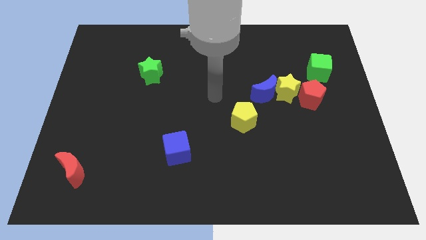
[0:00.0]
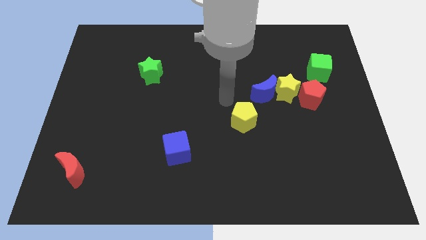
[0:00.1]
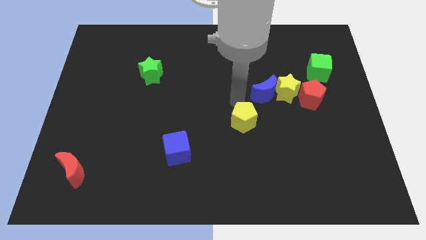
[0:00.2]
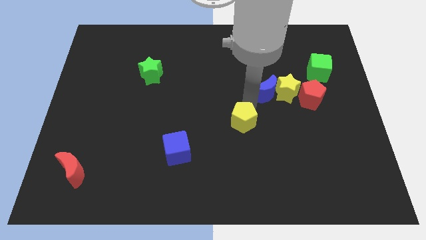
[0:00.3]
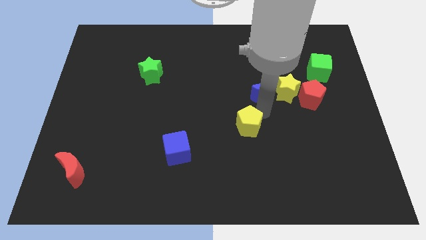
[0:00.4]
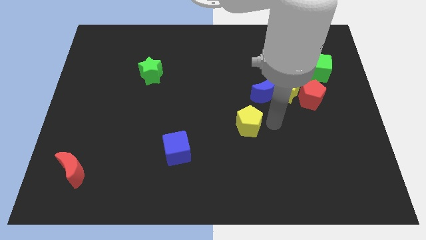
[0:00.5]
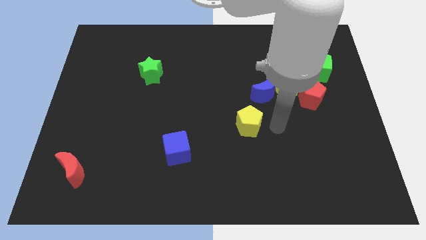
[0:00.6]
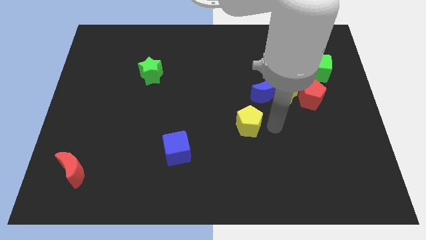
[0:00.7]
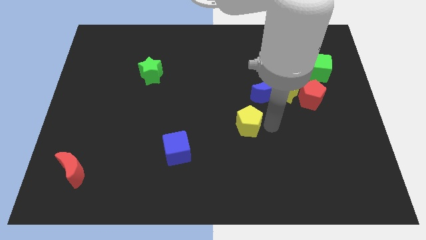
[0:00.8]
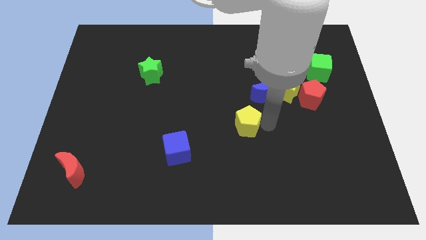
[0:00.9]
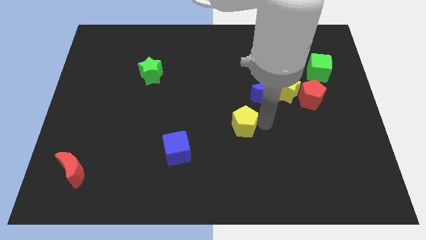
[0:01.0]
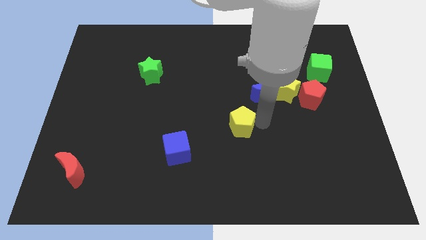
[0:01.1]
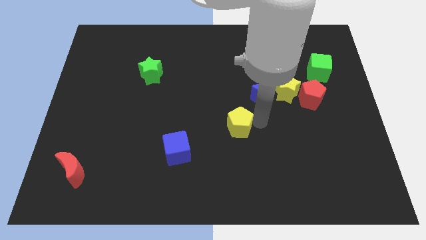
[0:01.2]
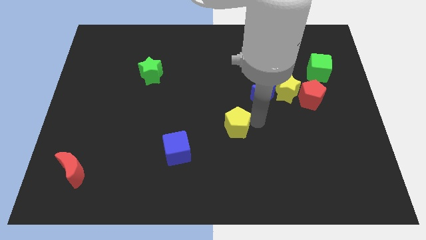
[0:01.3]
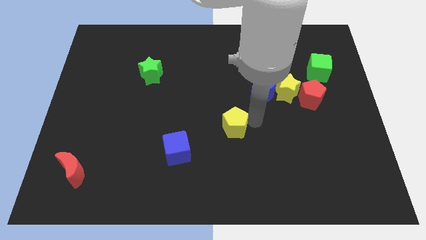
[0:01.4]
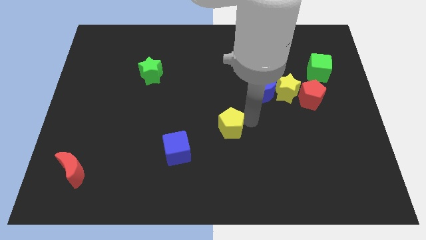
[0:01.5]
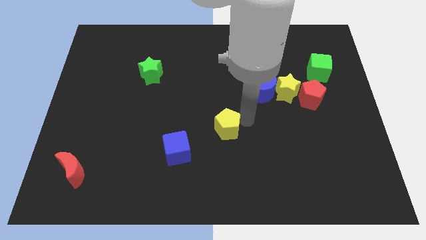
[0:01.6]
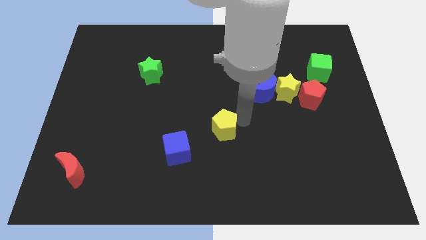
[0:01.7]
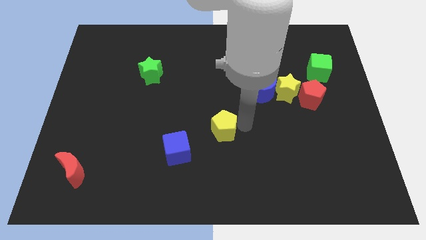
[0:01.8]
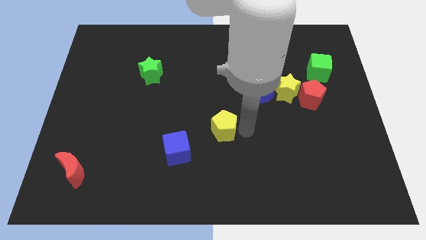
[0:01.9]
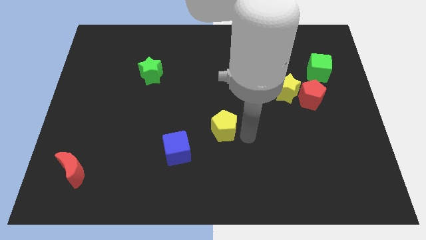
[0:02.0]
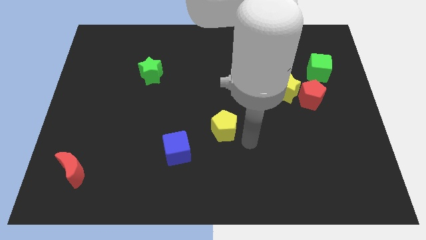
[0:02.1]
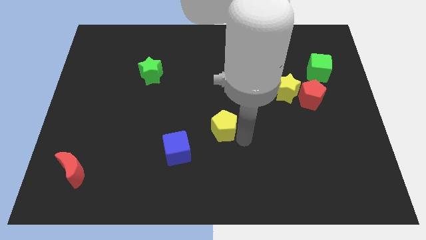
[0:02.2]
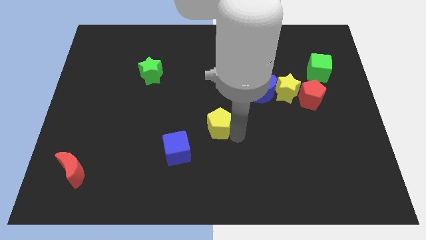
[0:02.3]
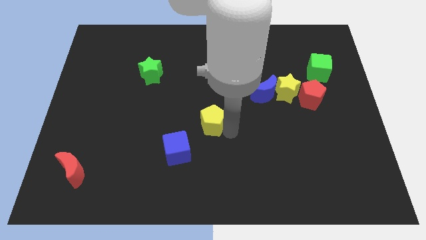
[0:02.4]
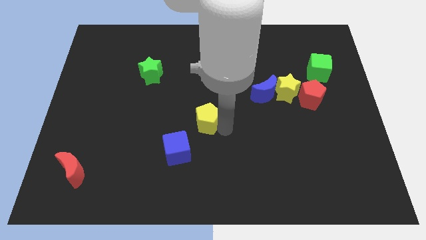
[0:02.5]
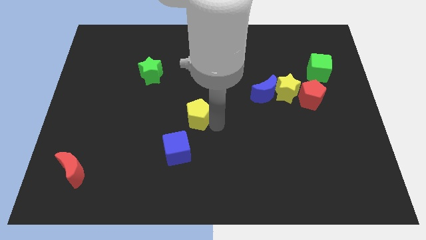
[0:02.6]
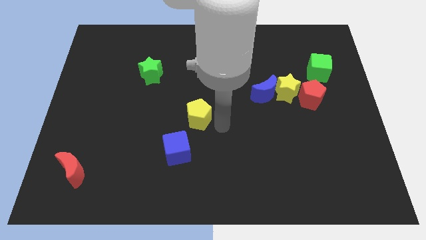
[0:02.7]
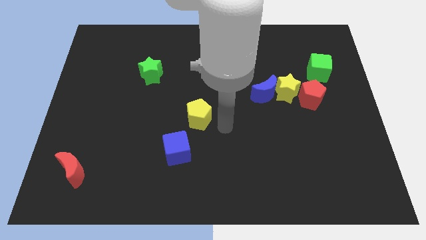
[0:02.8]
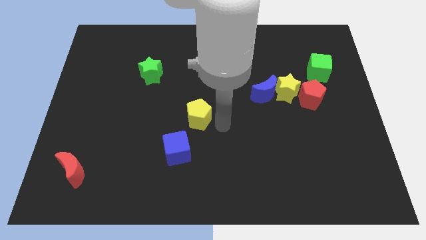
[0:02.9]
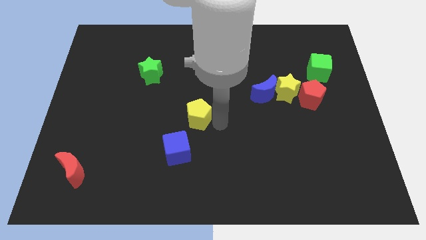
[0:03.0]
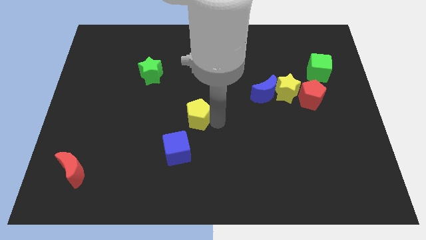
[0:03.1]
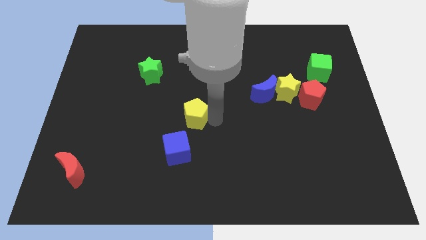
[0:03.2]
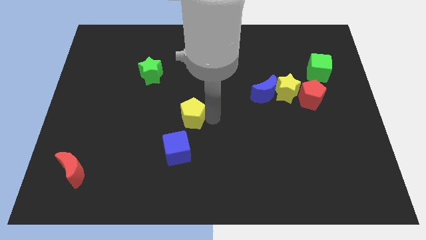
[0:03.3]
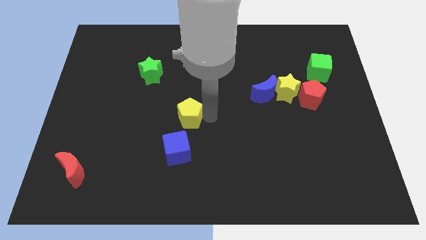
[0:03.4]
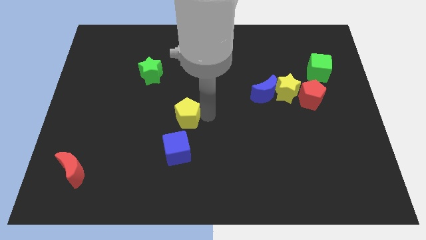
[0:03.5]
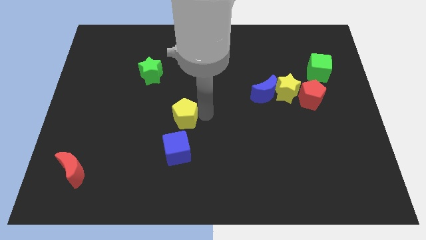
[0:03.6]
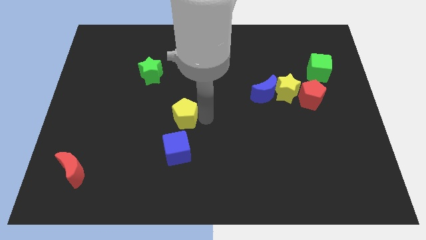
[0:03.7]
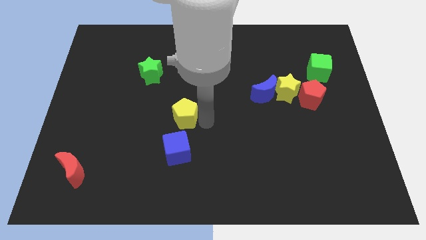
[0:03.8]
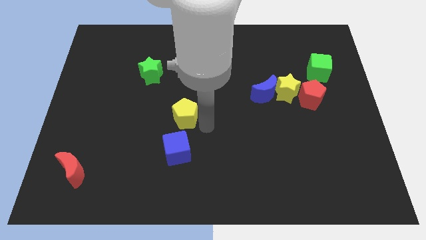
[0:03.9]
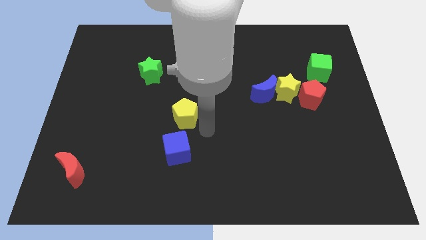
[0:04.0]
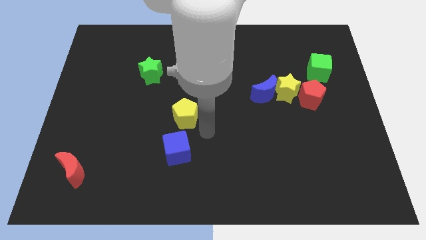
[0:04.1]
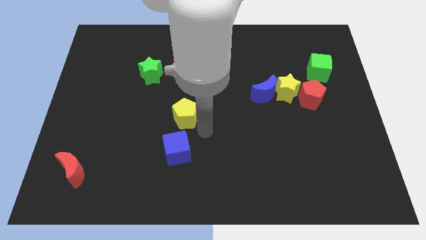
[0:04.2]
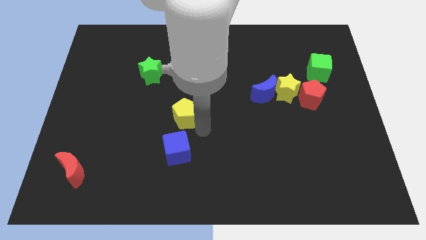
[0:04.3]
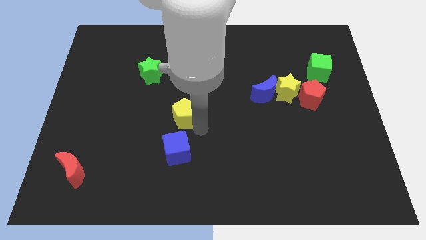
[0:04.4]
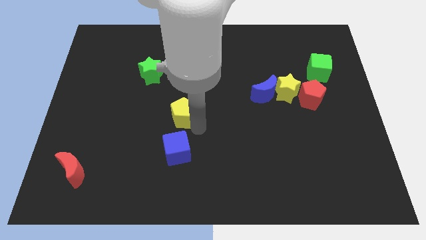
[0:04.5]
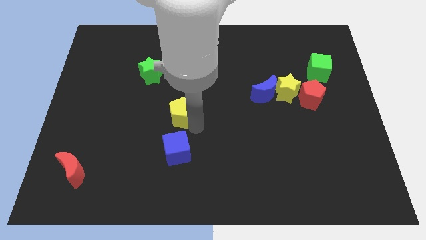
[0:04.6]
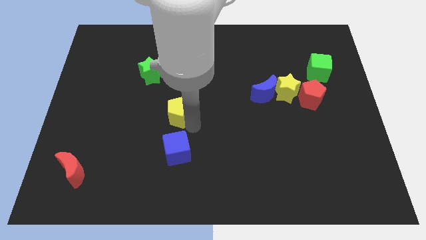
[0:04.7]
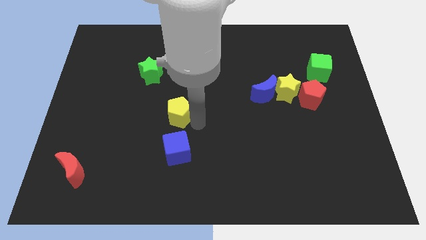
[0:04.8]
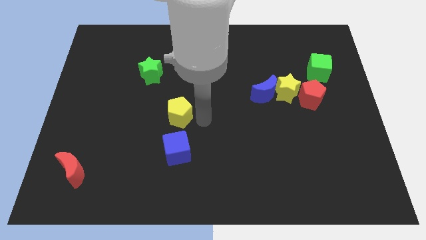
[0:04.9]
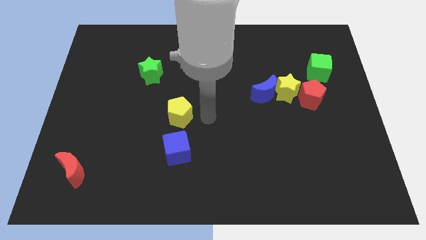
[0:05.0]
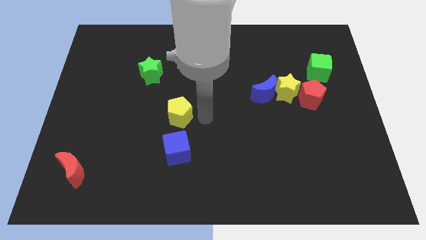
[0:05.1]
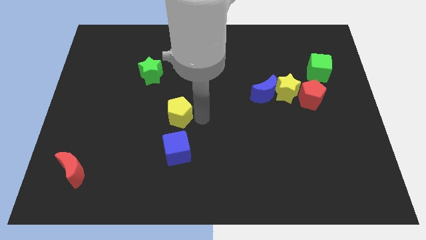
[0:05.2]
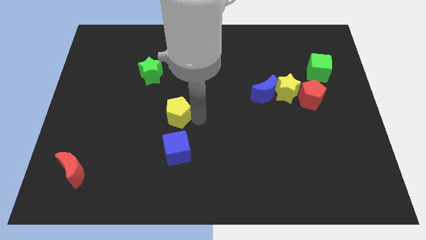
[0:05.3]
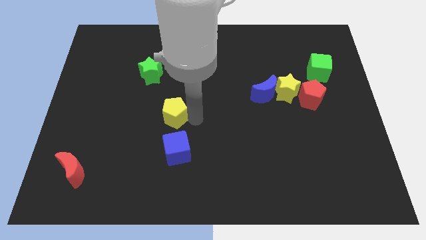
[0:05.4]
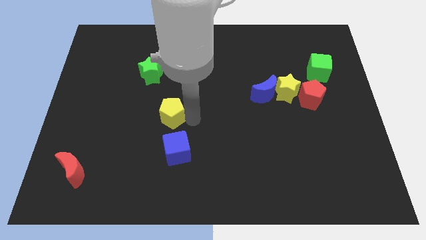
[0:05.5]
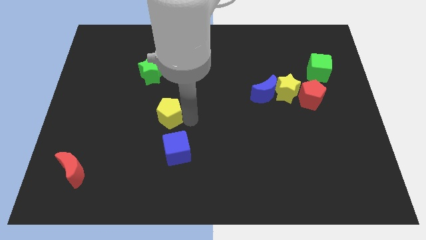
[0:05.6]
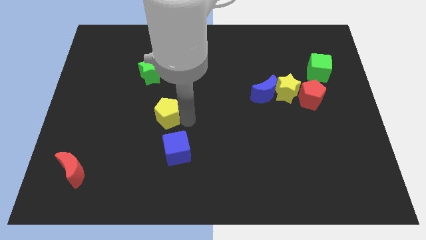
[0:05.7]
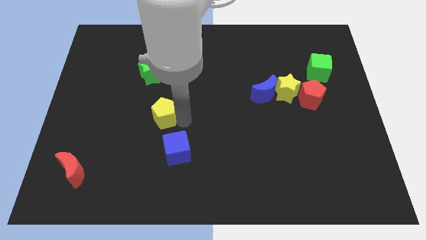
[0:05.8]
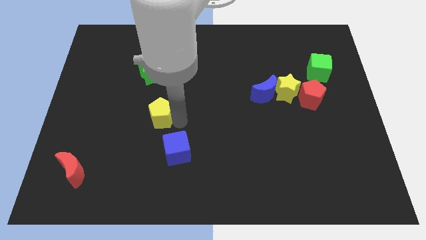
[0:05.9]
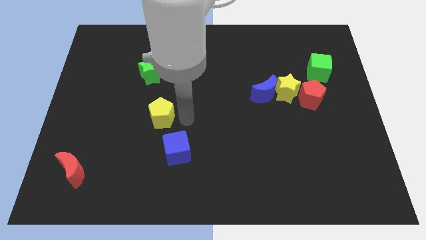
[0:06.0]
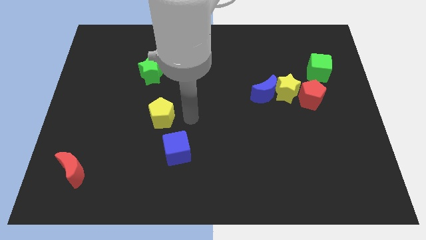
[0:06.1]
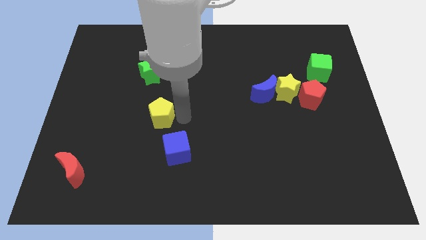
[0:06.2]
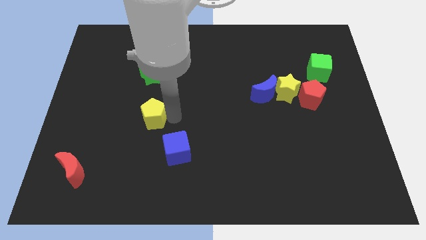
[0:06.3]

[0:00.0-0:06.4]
move the yellow pentagon left

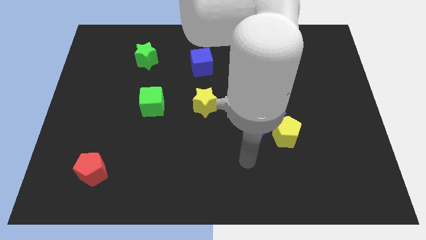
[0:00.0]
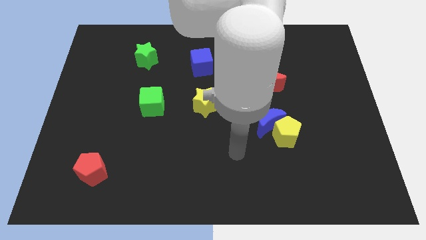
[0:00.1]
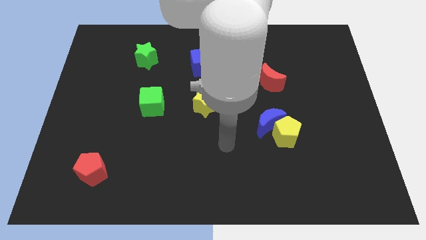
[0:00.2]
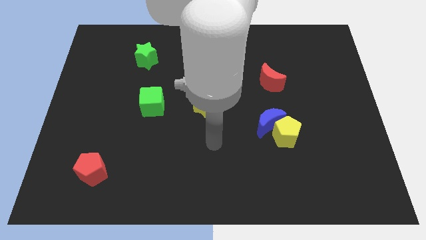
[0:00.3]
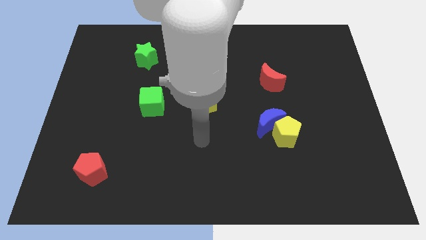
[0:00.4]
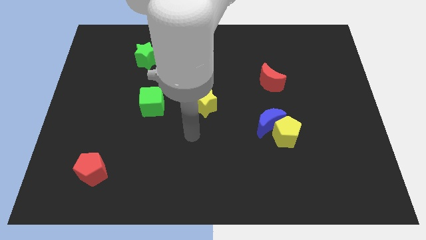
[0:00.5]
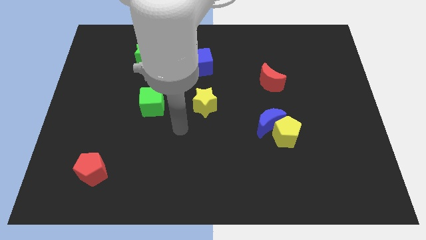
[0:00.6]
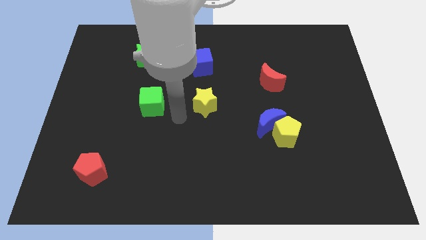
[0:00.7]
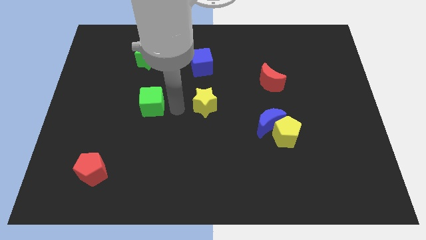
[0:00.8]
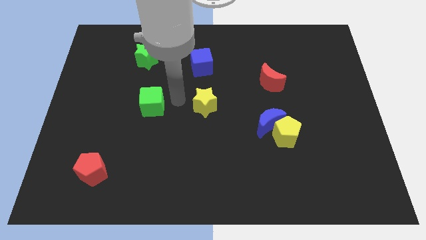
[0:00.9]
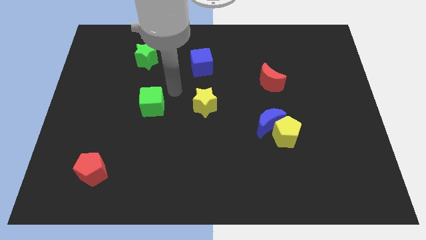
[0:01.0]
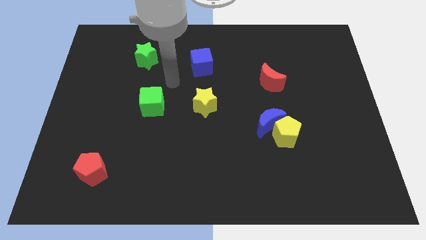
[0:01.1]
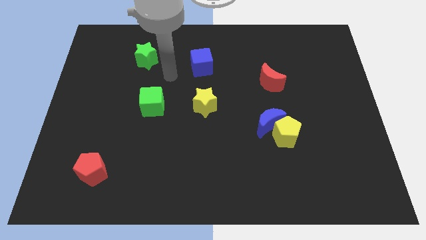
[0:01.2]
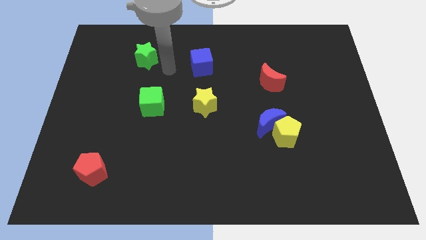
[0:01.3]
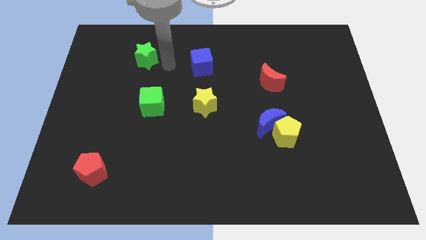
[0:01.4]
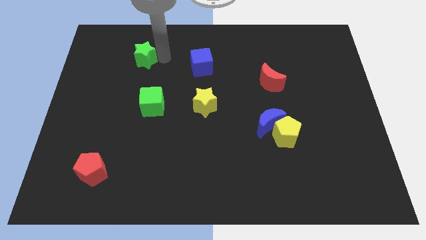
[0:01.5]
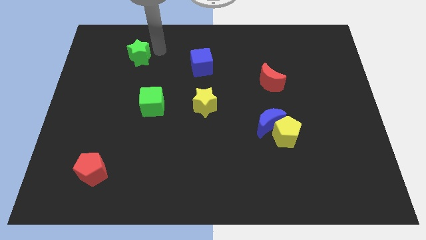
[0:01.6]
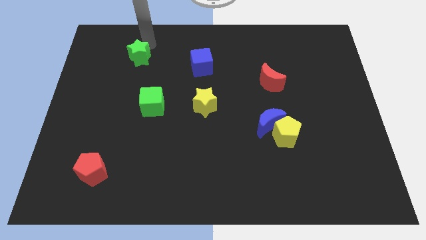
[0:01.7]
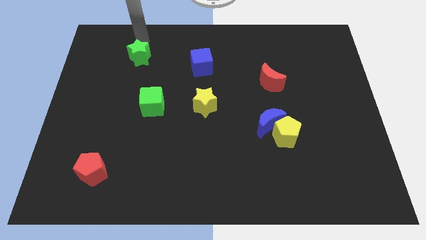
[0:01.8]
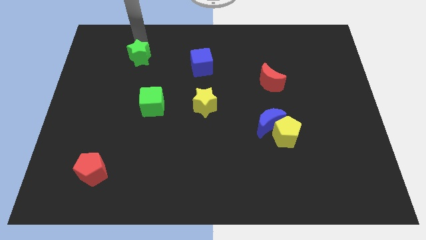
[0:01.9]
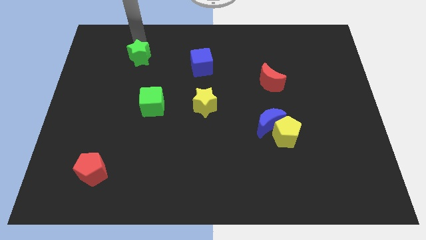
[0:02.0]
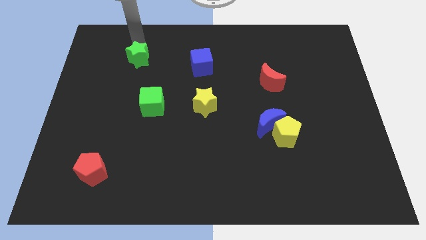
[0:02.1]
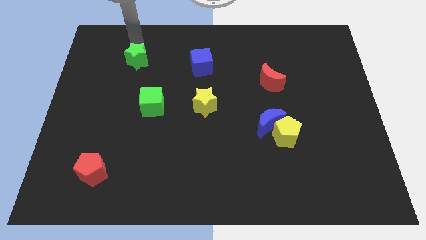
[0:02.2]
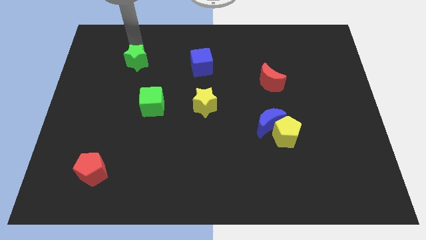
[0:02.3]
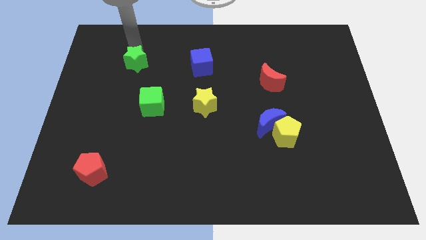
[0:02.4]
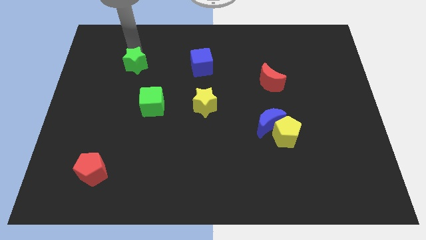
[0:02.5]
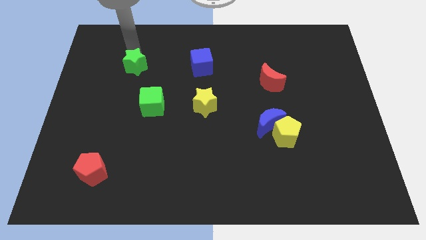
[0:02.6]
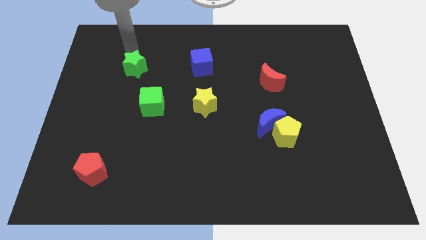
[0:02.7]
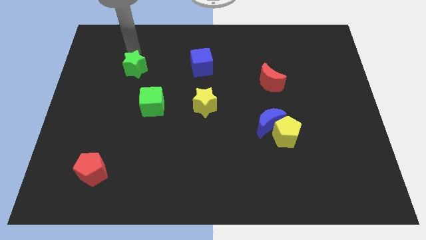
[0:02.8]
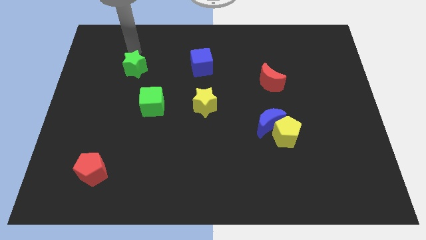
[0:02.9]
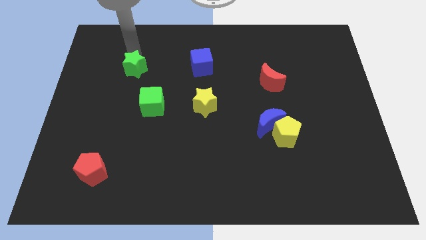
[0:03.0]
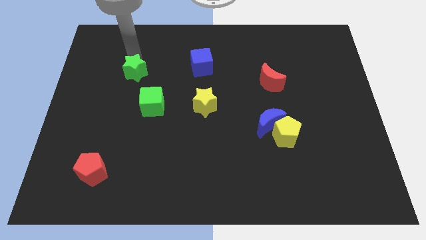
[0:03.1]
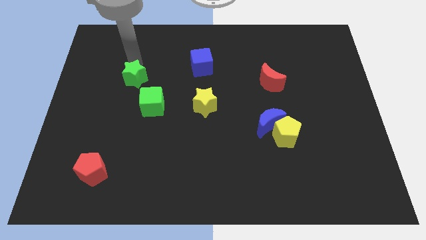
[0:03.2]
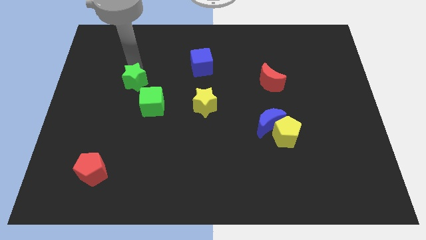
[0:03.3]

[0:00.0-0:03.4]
move the green star down a little
